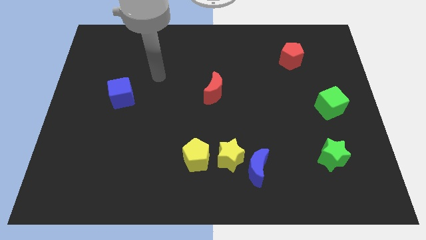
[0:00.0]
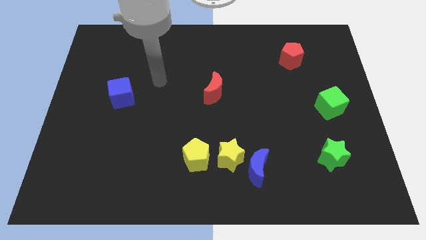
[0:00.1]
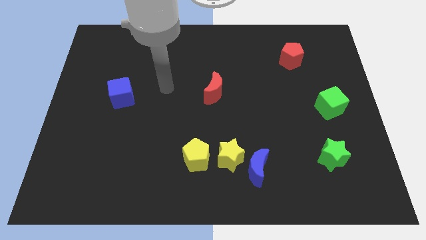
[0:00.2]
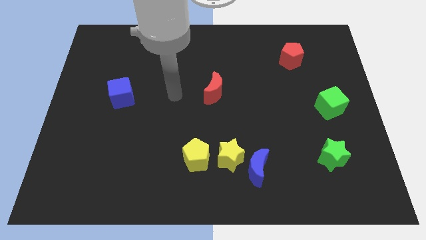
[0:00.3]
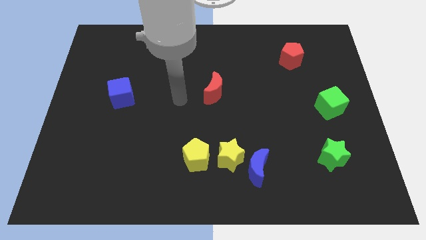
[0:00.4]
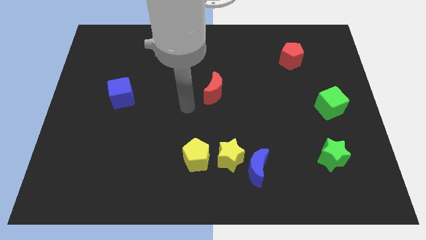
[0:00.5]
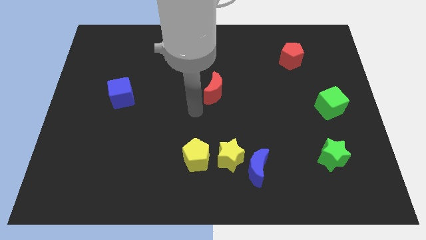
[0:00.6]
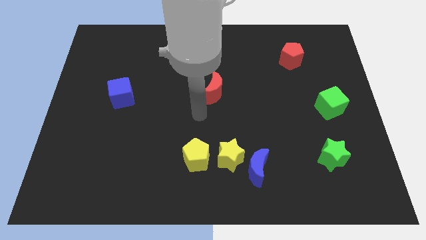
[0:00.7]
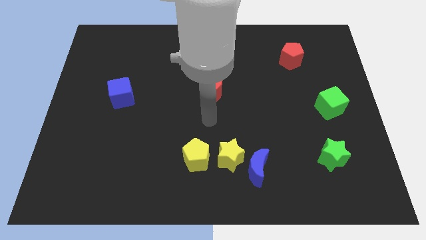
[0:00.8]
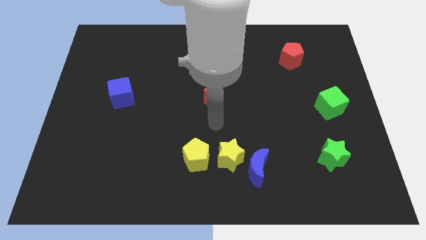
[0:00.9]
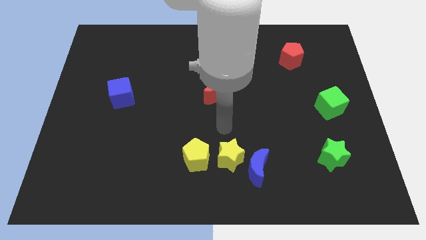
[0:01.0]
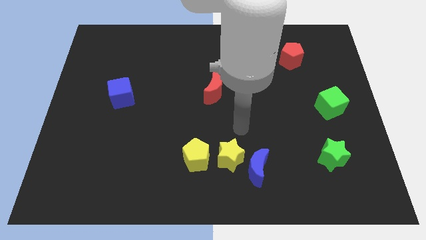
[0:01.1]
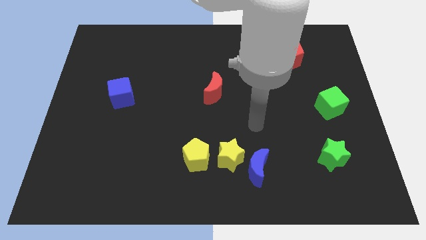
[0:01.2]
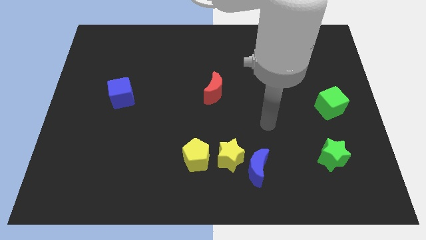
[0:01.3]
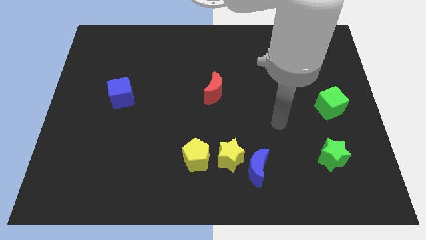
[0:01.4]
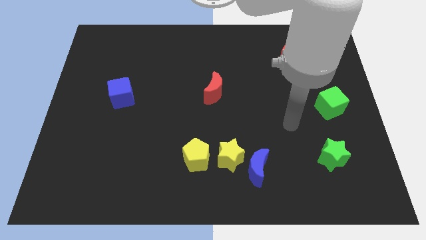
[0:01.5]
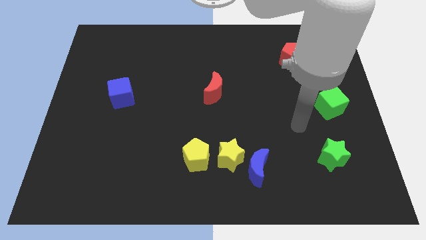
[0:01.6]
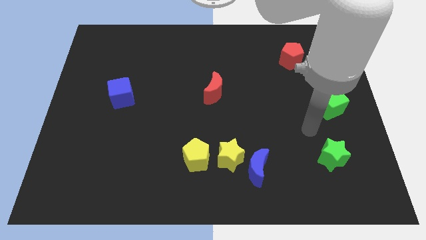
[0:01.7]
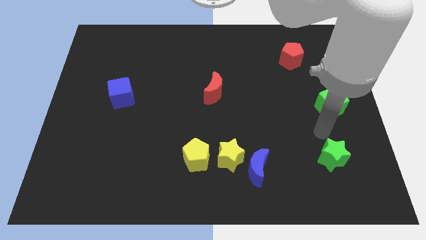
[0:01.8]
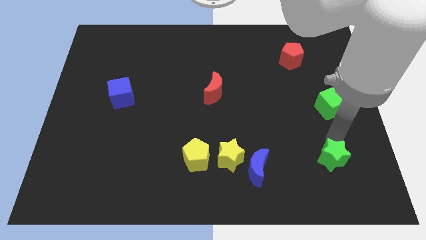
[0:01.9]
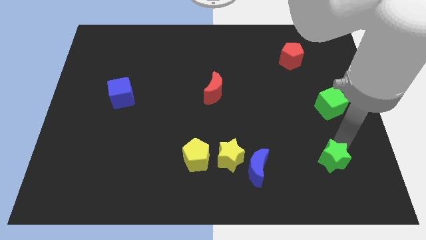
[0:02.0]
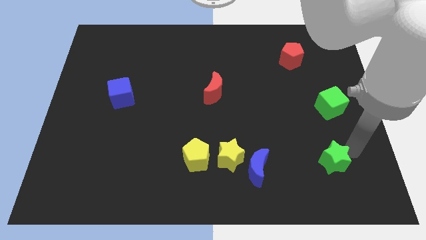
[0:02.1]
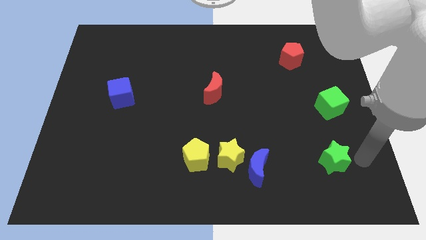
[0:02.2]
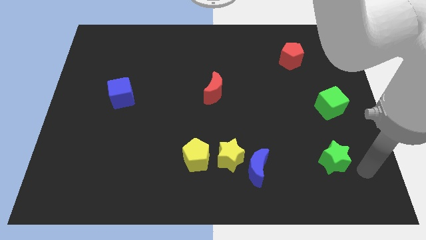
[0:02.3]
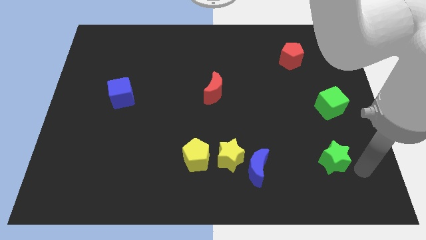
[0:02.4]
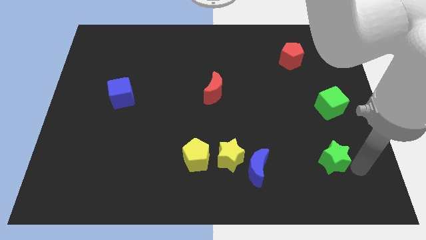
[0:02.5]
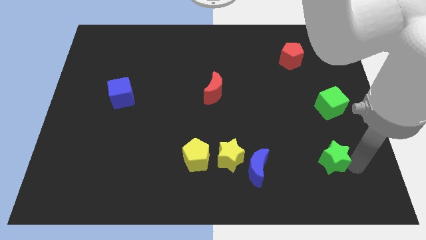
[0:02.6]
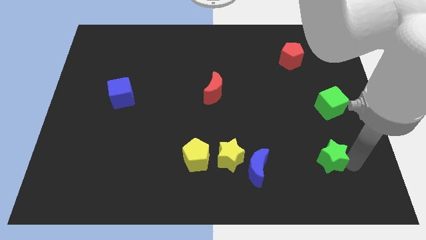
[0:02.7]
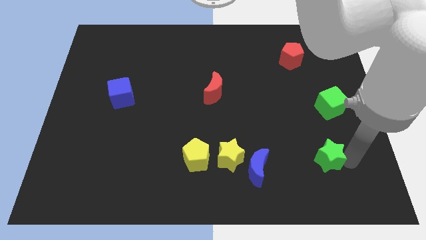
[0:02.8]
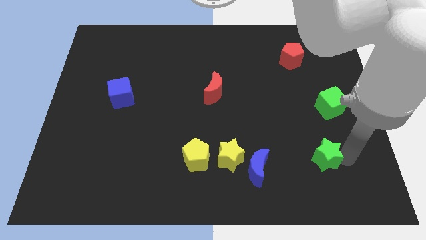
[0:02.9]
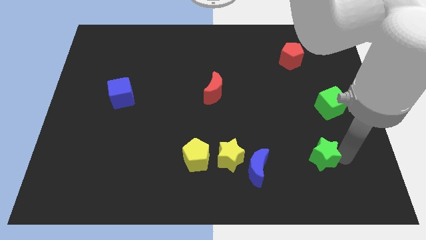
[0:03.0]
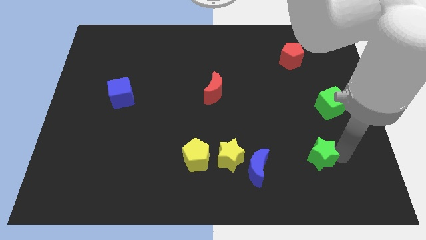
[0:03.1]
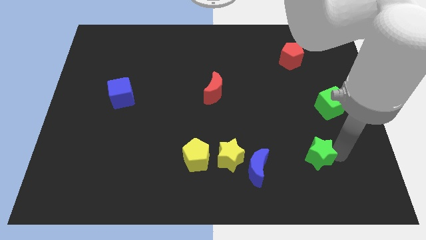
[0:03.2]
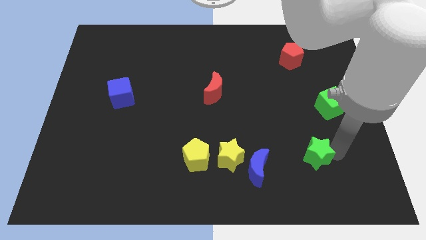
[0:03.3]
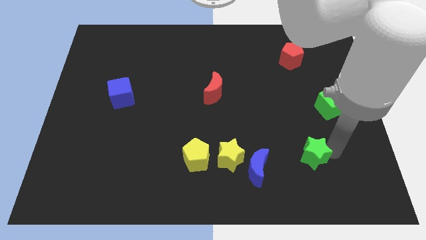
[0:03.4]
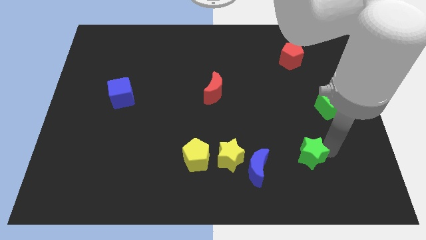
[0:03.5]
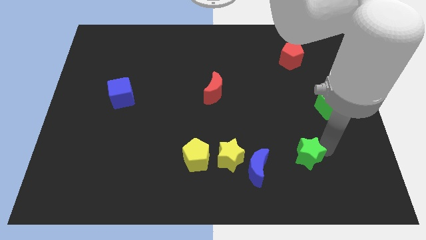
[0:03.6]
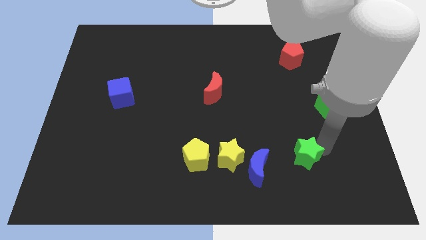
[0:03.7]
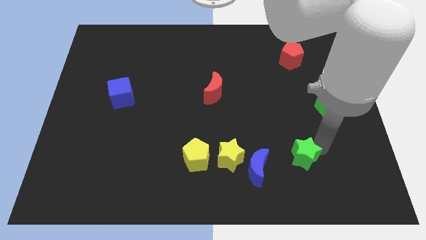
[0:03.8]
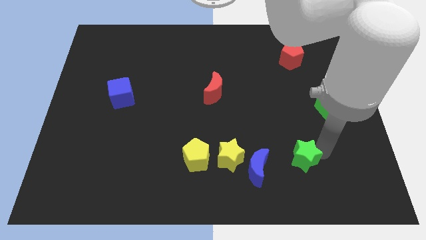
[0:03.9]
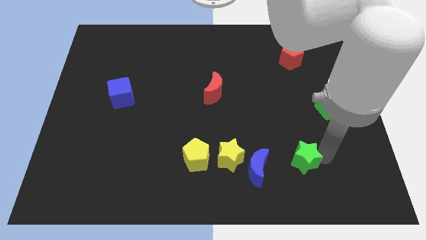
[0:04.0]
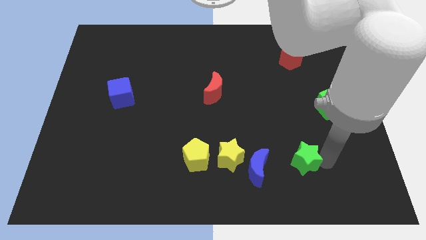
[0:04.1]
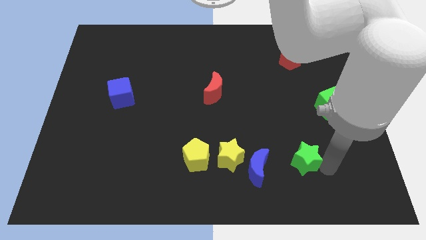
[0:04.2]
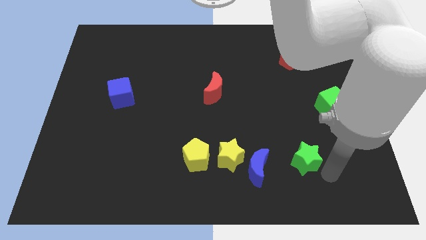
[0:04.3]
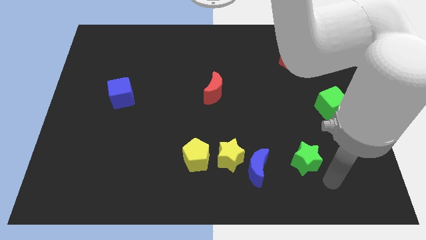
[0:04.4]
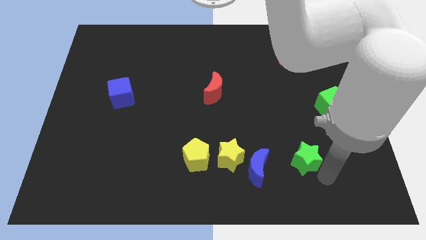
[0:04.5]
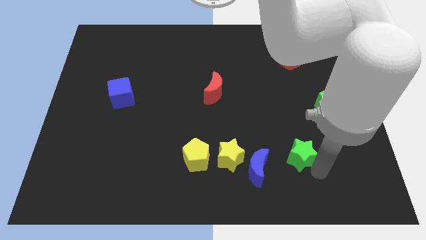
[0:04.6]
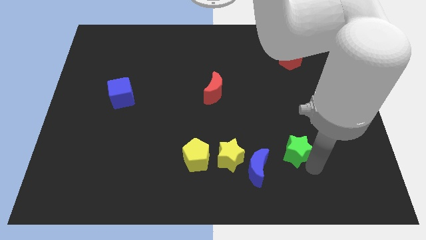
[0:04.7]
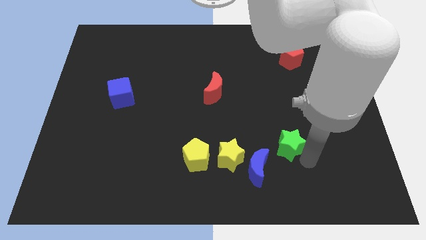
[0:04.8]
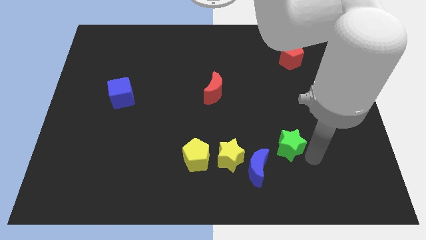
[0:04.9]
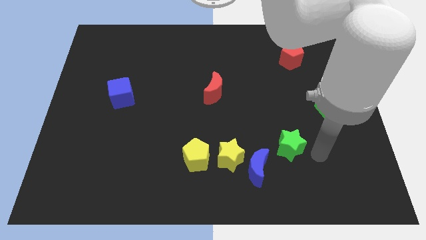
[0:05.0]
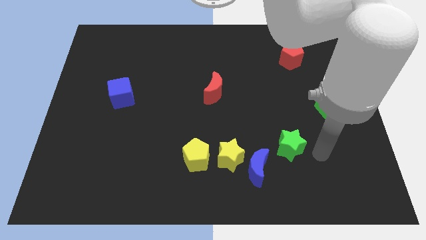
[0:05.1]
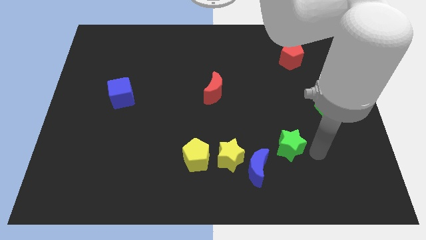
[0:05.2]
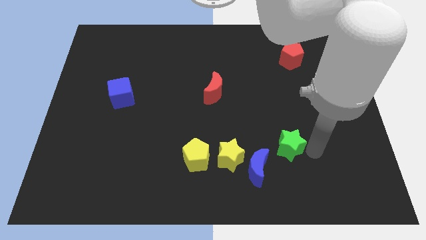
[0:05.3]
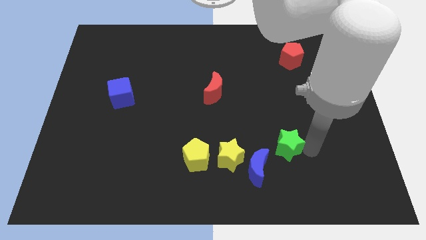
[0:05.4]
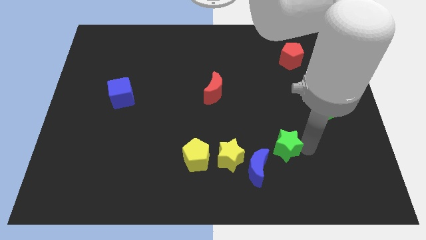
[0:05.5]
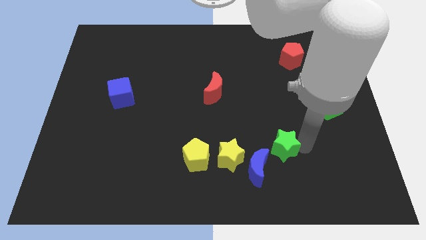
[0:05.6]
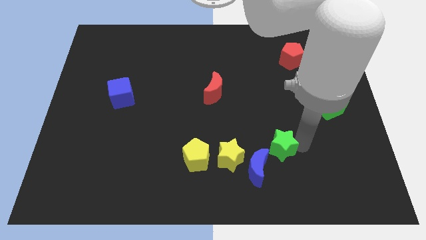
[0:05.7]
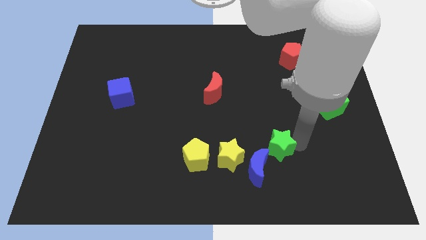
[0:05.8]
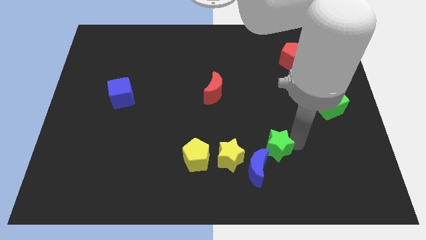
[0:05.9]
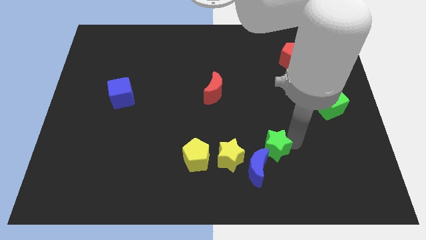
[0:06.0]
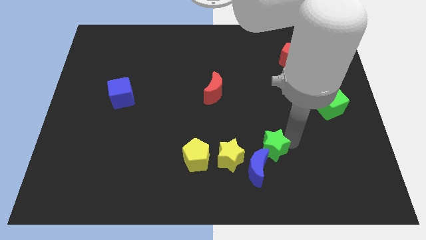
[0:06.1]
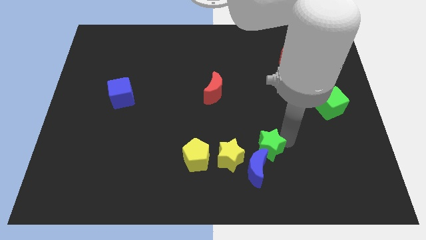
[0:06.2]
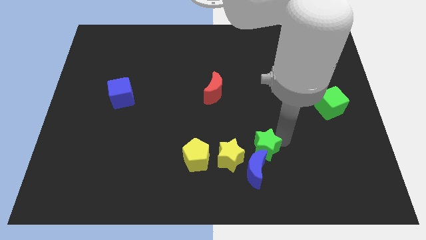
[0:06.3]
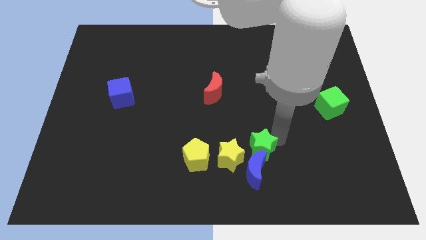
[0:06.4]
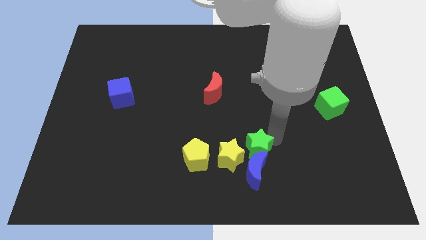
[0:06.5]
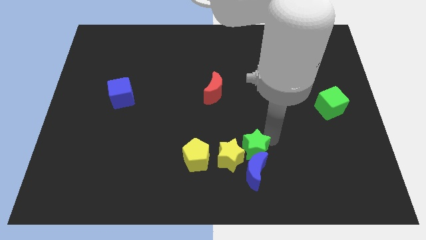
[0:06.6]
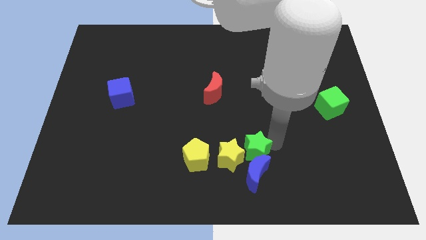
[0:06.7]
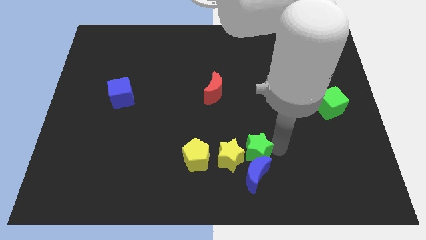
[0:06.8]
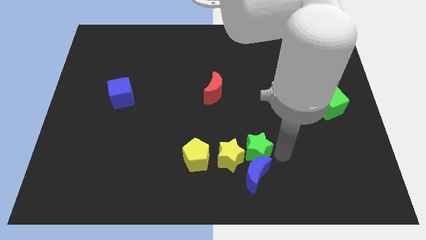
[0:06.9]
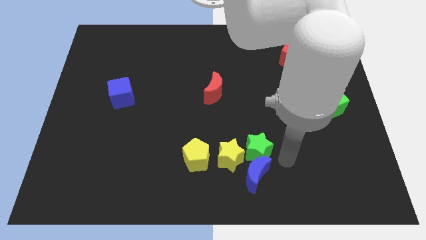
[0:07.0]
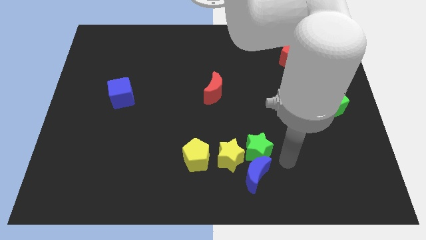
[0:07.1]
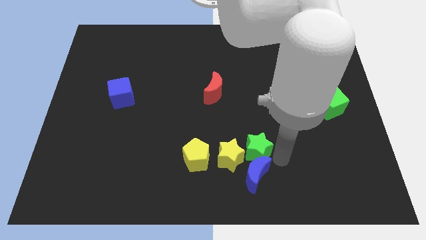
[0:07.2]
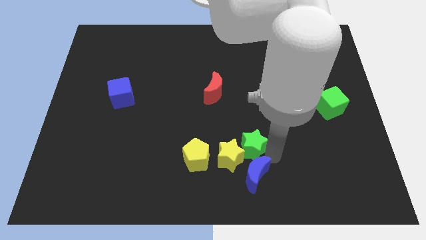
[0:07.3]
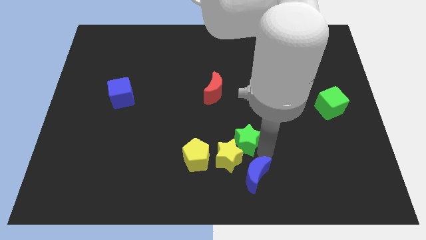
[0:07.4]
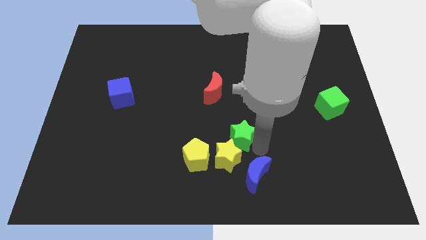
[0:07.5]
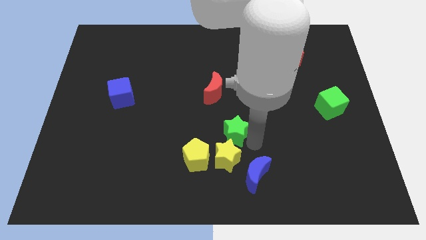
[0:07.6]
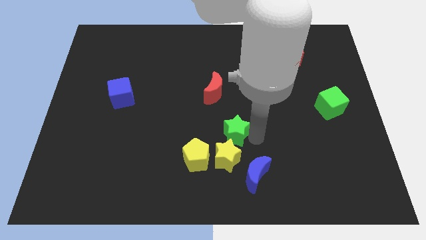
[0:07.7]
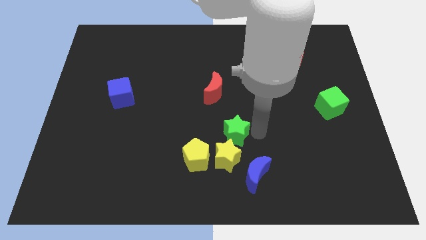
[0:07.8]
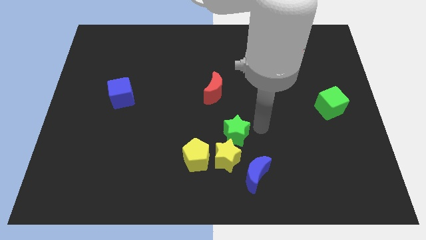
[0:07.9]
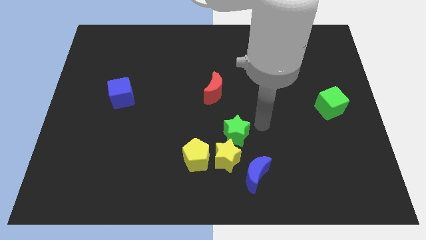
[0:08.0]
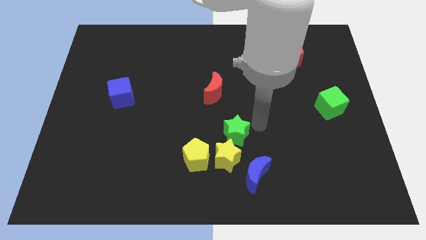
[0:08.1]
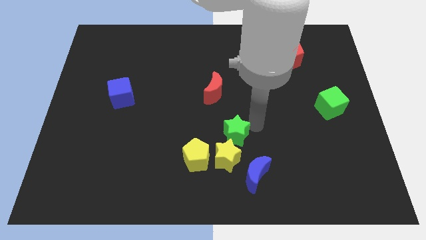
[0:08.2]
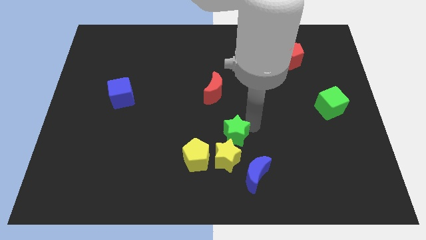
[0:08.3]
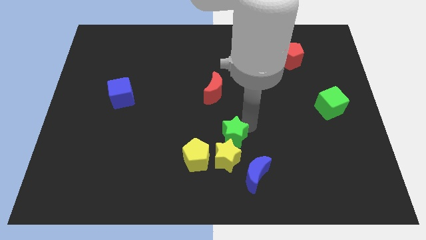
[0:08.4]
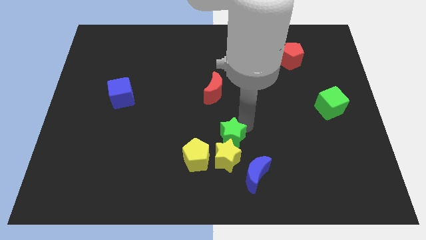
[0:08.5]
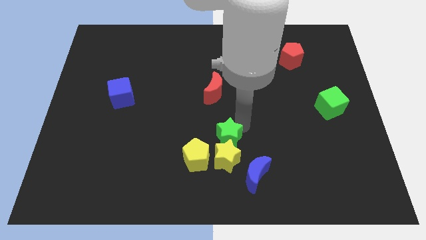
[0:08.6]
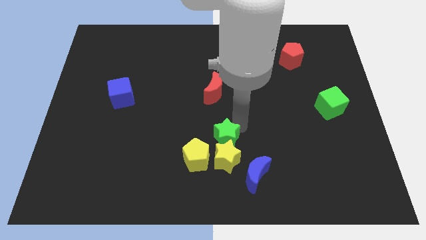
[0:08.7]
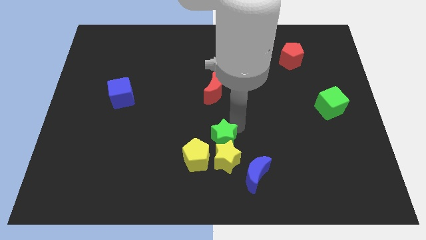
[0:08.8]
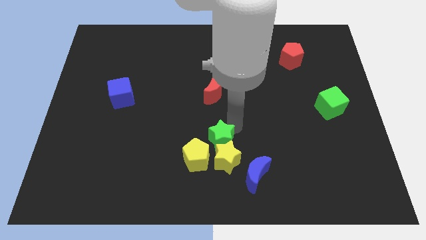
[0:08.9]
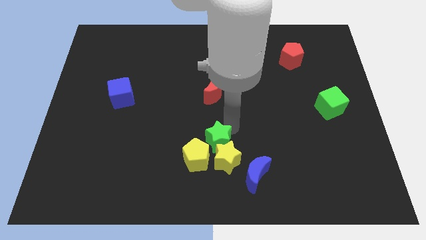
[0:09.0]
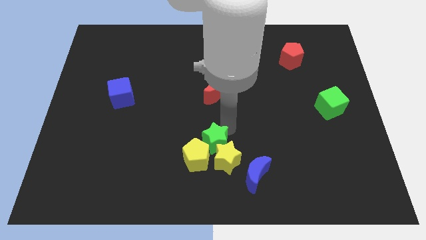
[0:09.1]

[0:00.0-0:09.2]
slide the green star next to the yellow pentagon
